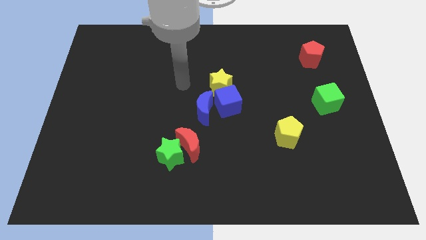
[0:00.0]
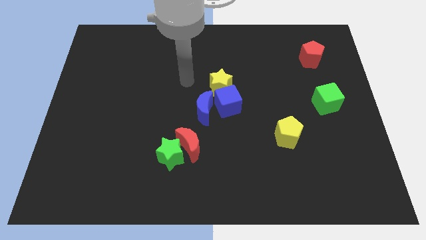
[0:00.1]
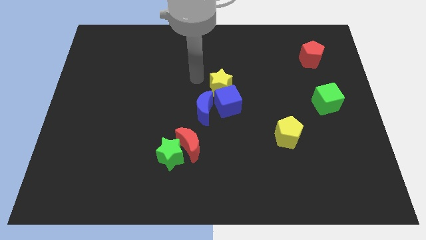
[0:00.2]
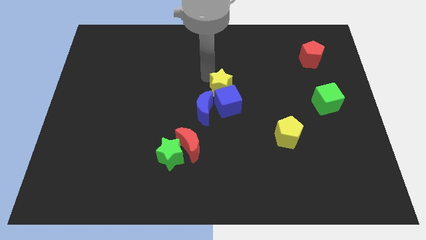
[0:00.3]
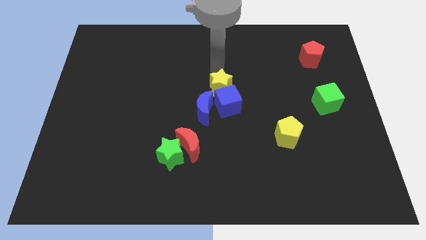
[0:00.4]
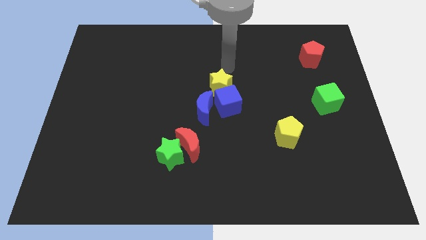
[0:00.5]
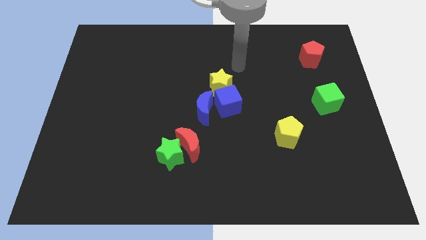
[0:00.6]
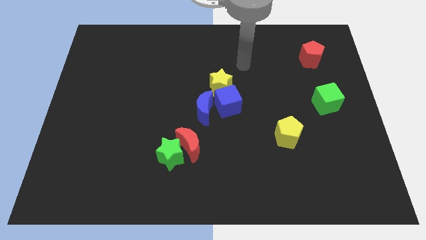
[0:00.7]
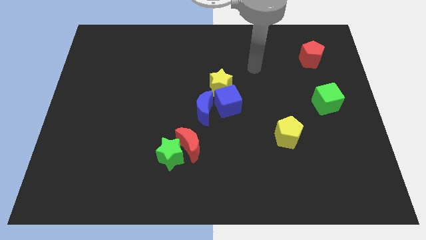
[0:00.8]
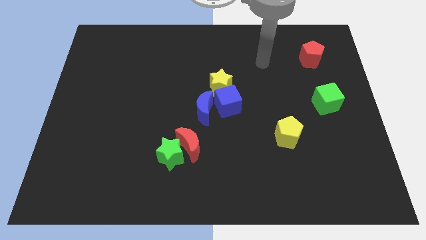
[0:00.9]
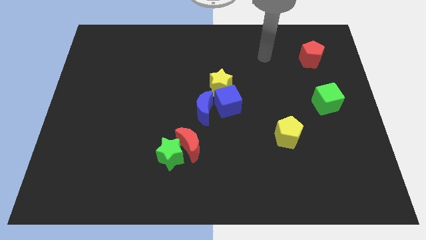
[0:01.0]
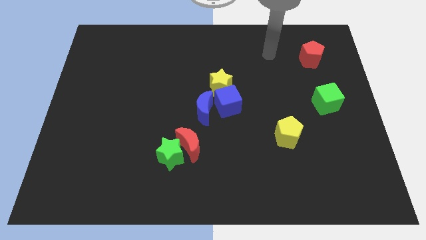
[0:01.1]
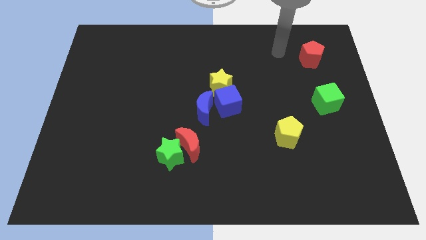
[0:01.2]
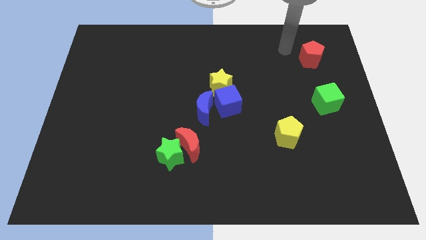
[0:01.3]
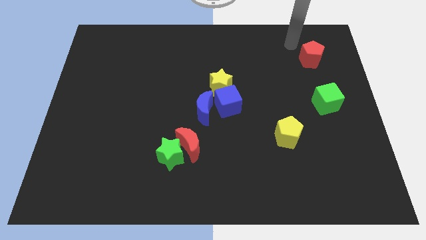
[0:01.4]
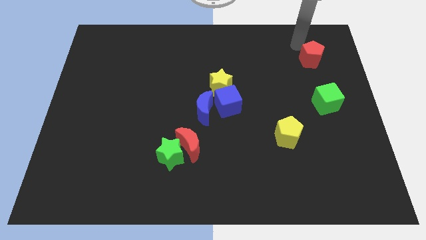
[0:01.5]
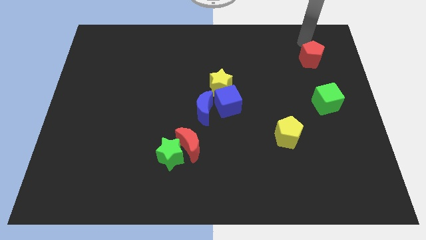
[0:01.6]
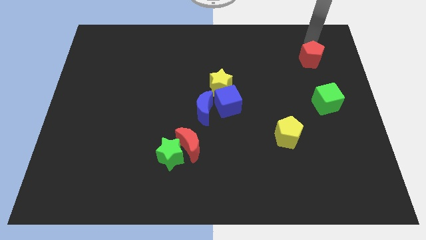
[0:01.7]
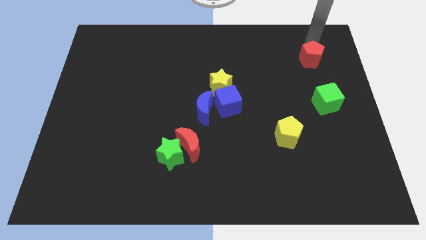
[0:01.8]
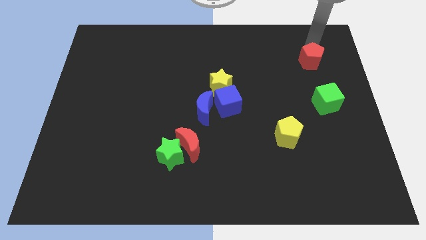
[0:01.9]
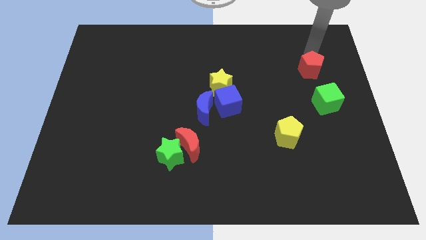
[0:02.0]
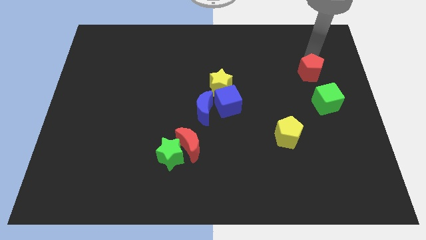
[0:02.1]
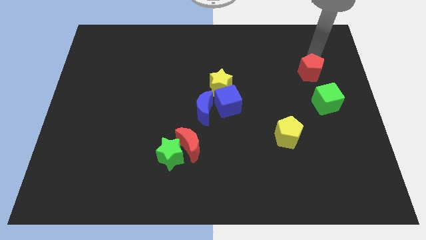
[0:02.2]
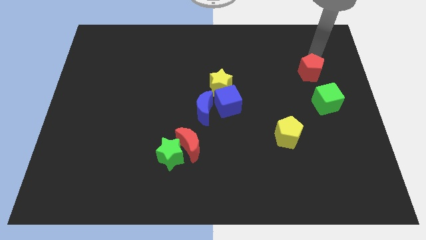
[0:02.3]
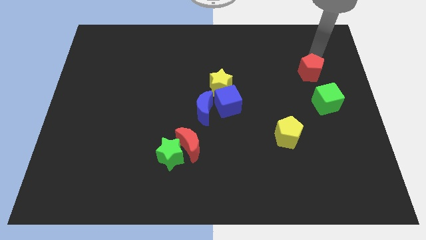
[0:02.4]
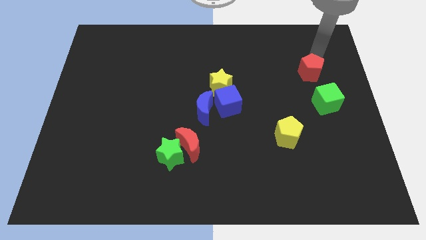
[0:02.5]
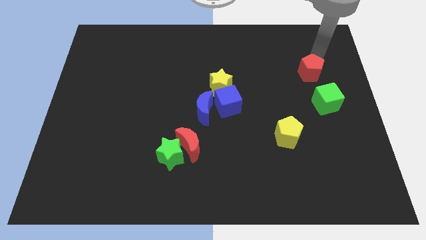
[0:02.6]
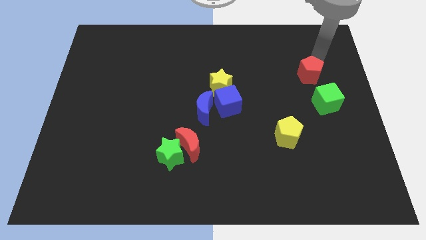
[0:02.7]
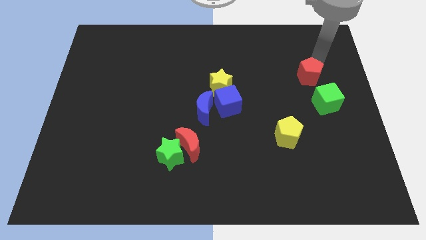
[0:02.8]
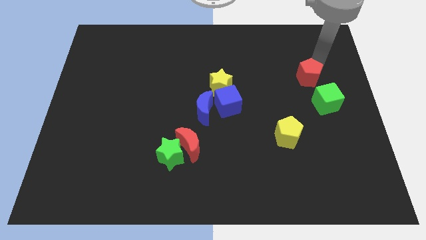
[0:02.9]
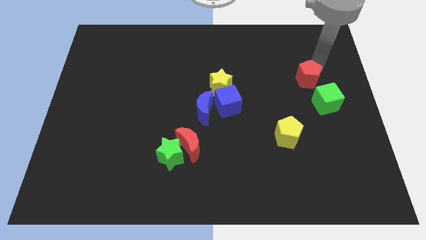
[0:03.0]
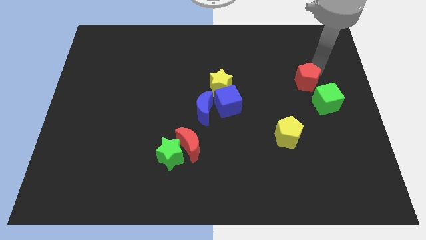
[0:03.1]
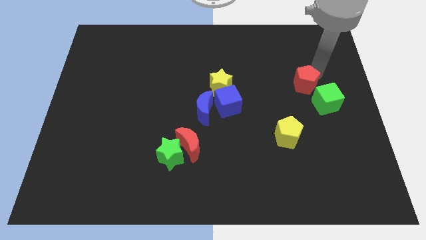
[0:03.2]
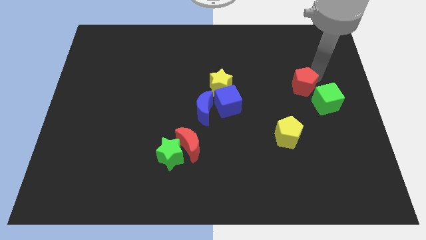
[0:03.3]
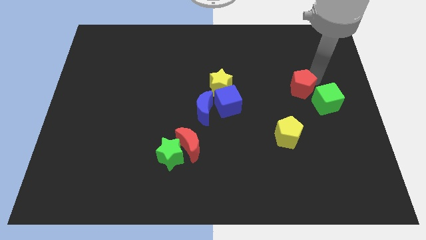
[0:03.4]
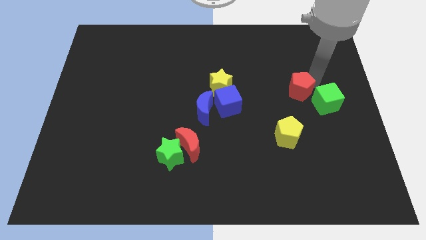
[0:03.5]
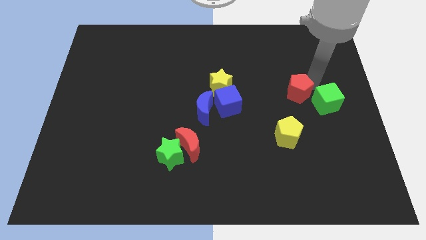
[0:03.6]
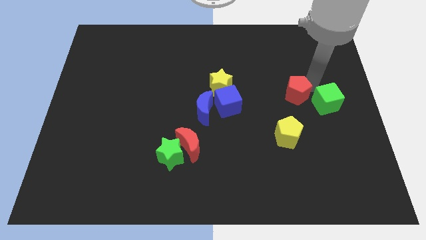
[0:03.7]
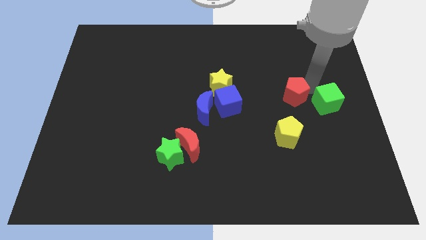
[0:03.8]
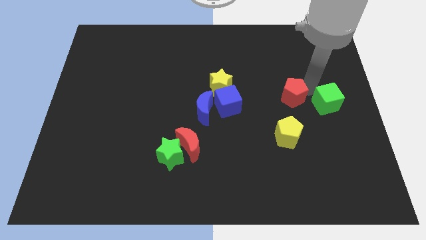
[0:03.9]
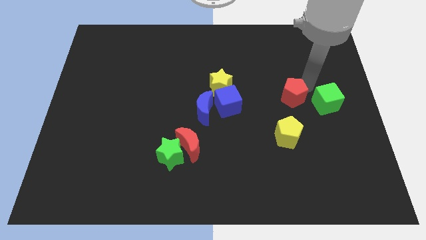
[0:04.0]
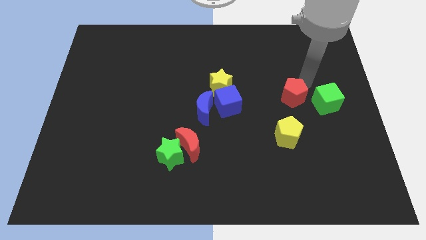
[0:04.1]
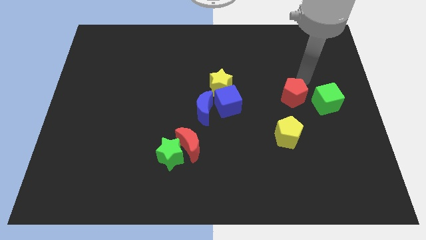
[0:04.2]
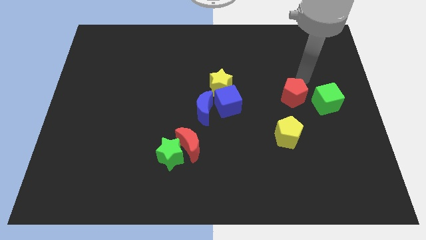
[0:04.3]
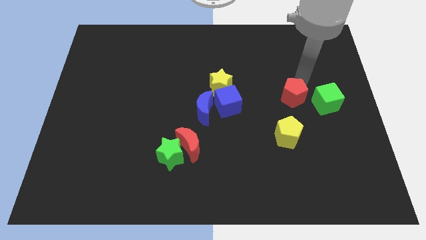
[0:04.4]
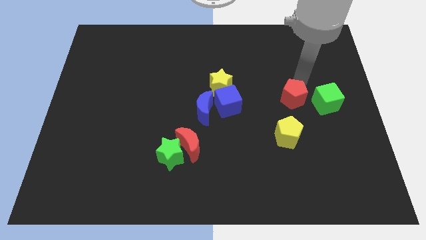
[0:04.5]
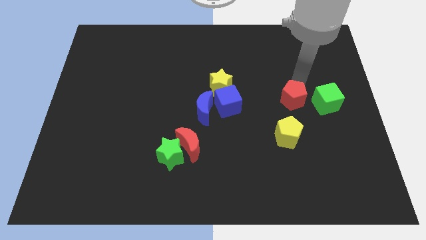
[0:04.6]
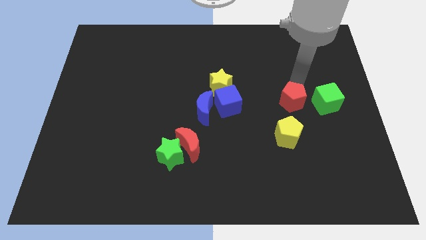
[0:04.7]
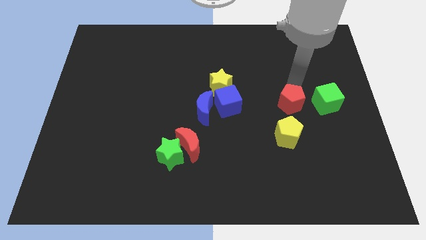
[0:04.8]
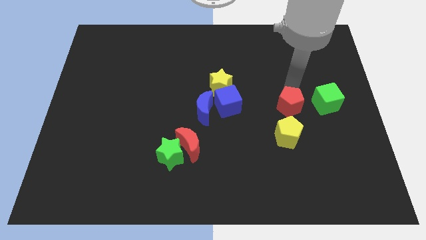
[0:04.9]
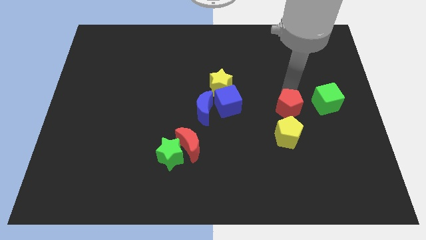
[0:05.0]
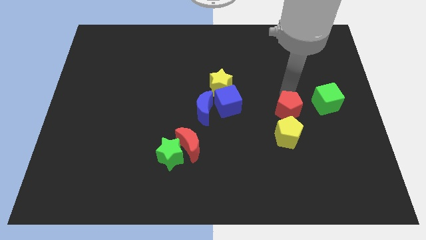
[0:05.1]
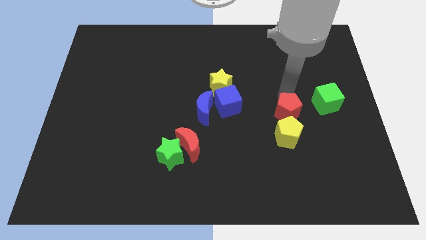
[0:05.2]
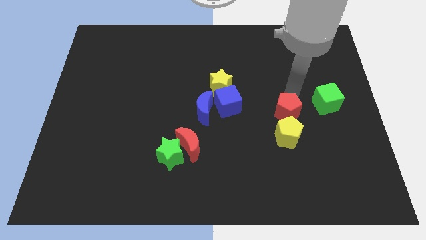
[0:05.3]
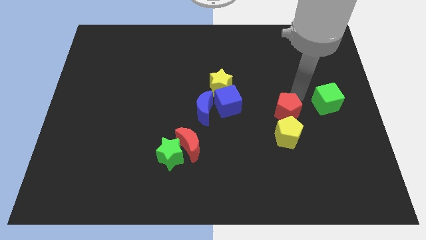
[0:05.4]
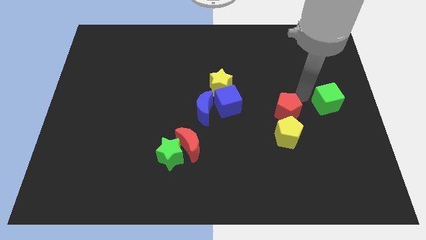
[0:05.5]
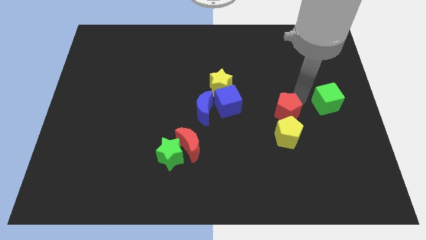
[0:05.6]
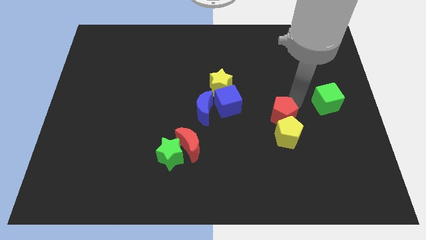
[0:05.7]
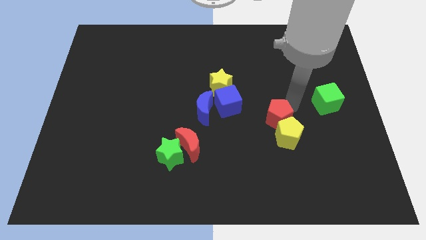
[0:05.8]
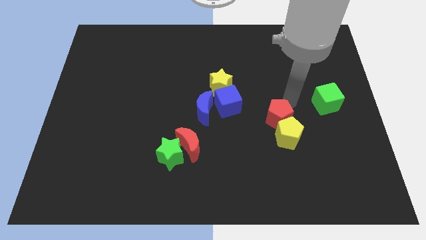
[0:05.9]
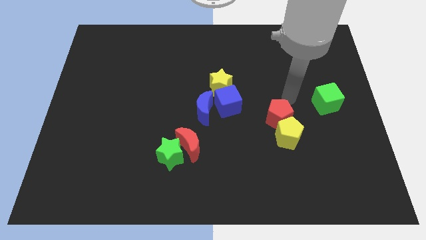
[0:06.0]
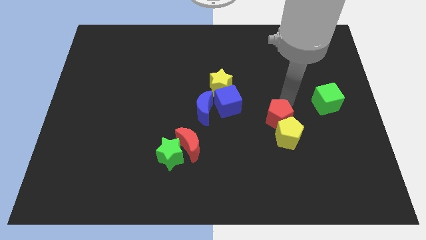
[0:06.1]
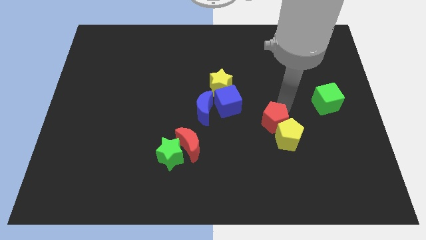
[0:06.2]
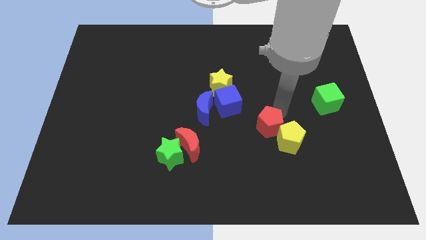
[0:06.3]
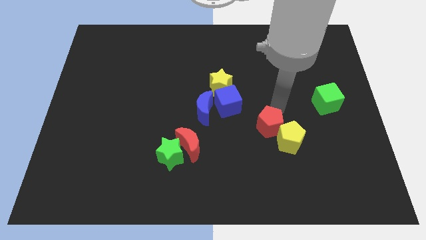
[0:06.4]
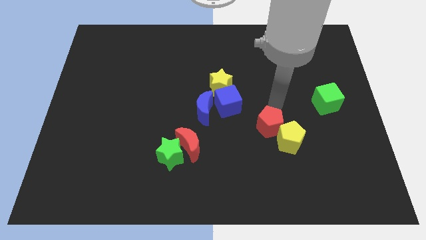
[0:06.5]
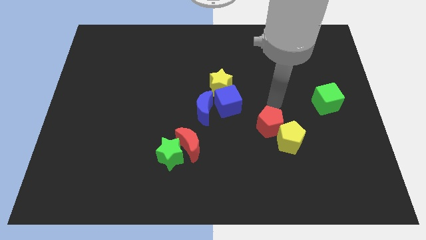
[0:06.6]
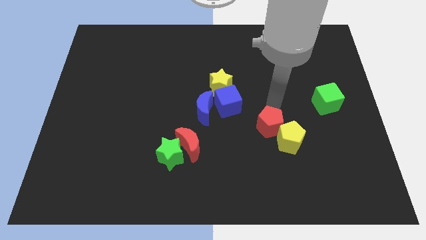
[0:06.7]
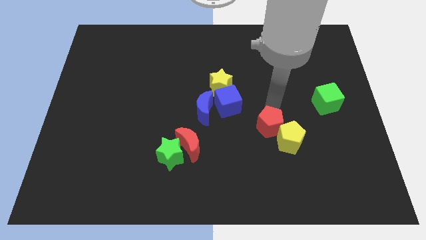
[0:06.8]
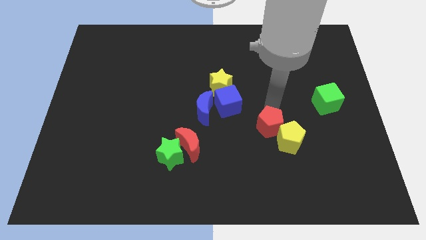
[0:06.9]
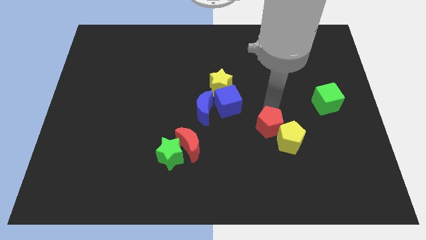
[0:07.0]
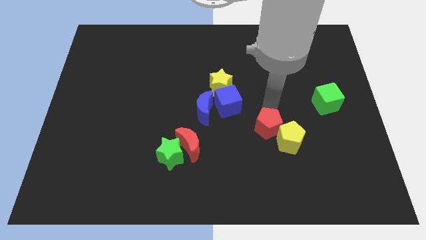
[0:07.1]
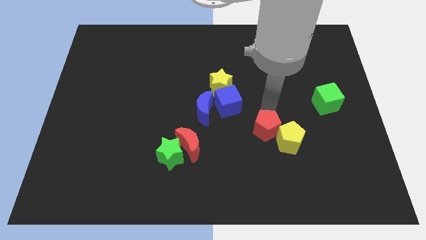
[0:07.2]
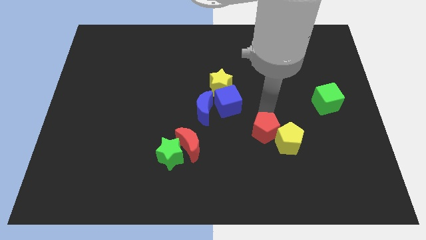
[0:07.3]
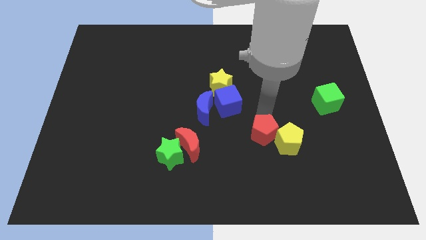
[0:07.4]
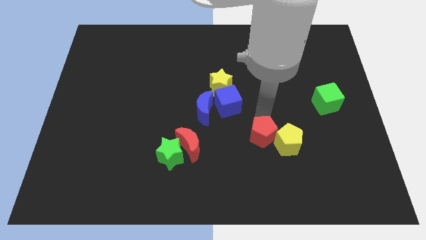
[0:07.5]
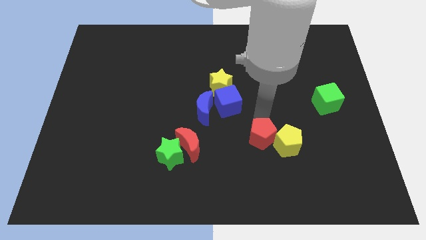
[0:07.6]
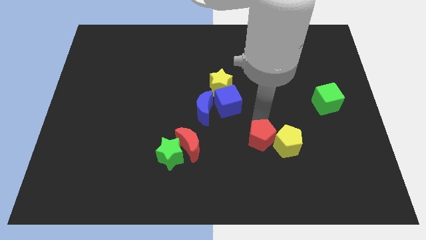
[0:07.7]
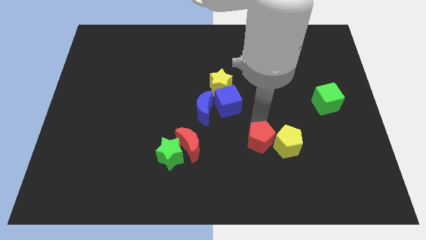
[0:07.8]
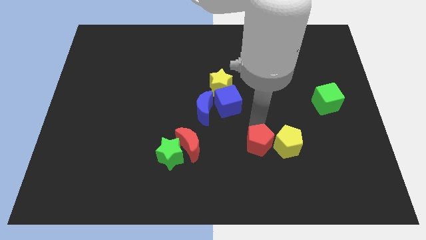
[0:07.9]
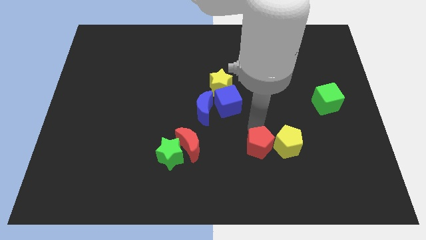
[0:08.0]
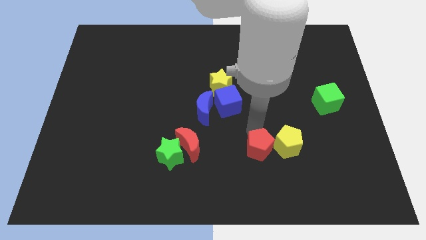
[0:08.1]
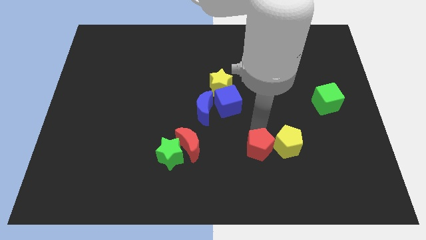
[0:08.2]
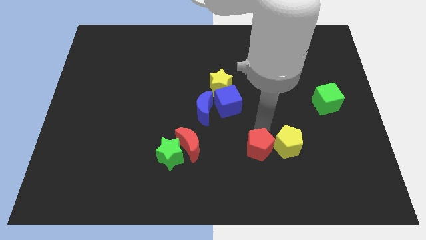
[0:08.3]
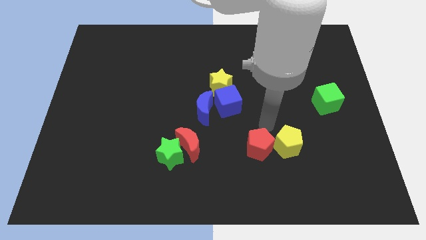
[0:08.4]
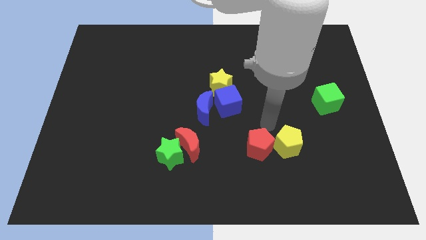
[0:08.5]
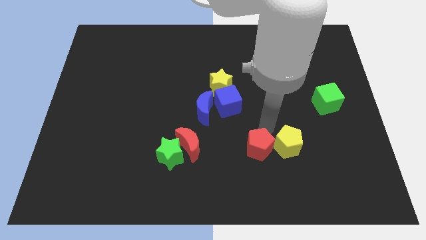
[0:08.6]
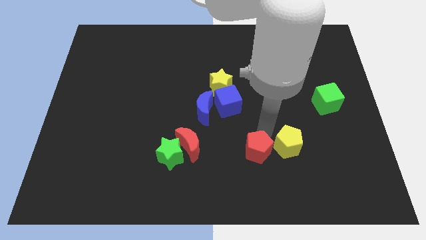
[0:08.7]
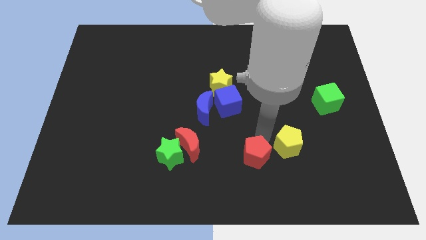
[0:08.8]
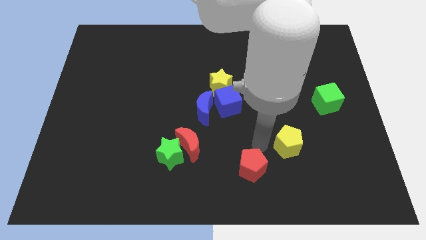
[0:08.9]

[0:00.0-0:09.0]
slide the red pentagon to the bottom
